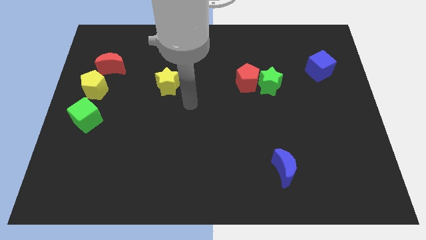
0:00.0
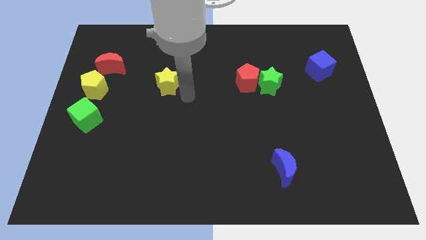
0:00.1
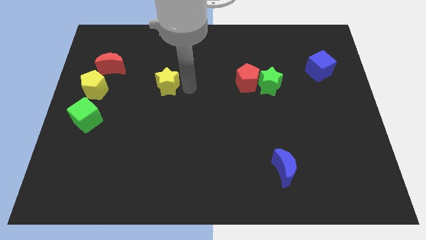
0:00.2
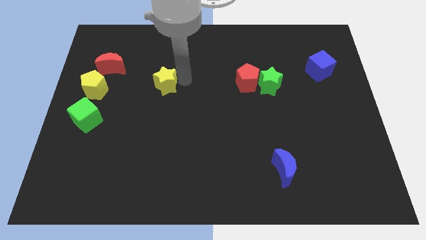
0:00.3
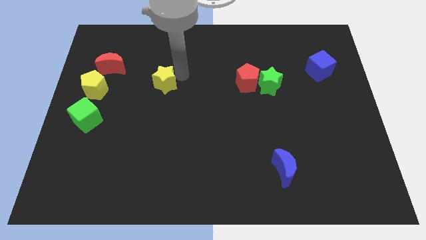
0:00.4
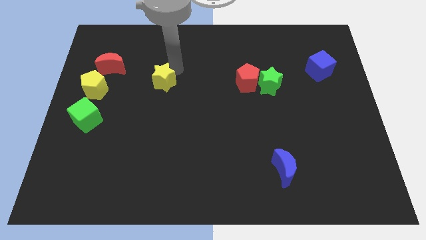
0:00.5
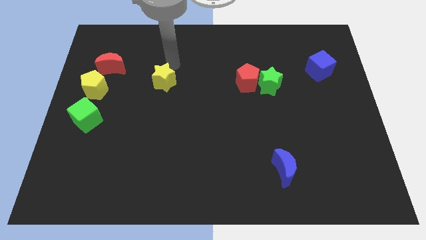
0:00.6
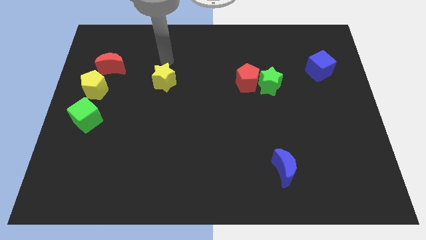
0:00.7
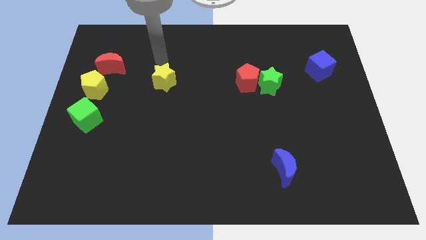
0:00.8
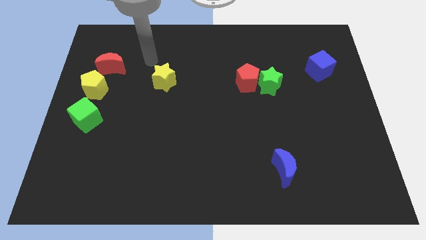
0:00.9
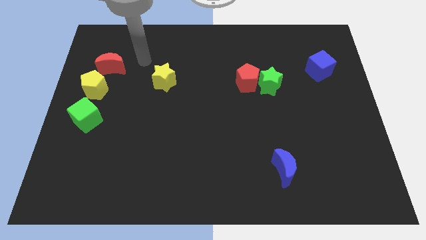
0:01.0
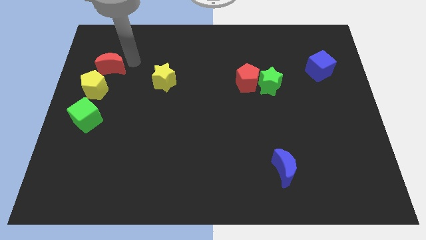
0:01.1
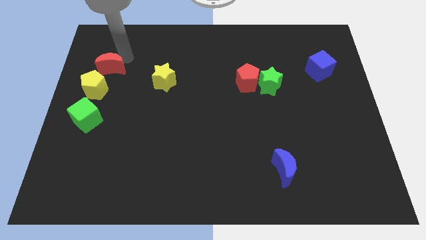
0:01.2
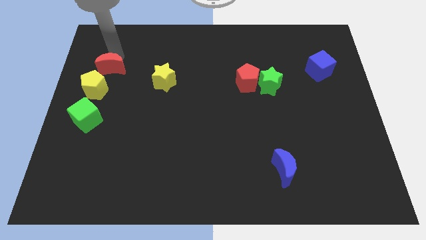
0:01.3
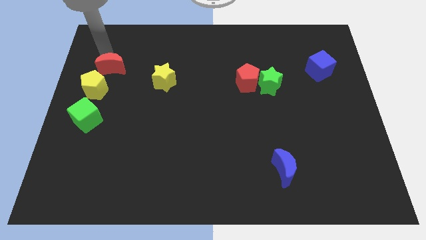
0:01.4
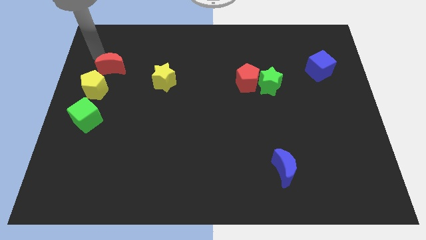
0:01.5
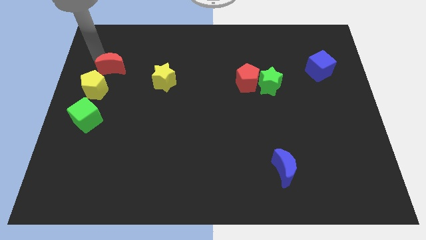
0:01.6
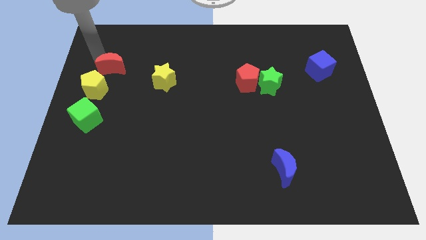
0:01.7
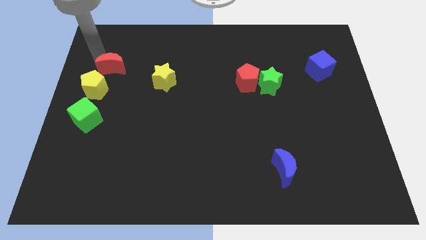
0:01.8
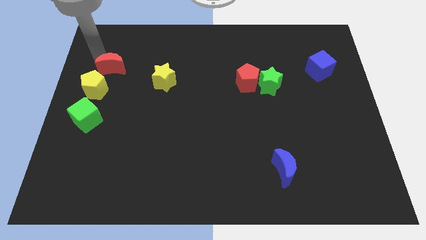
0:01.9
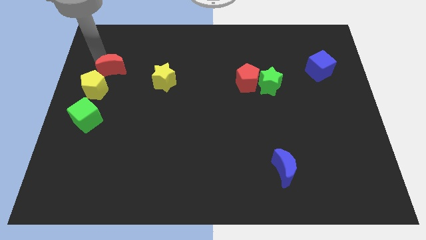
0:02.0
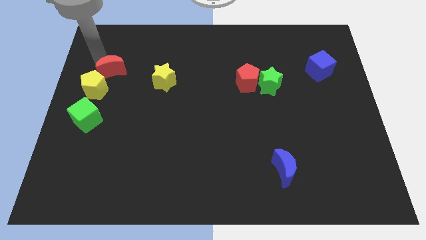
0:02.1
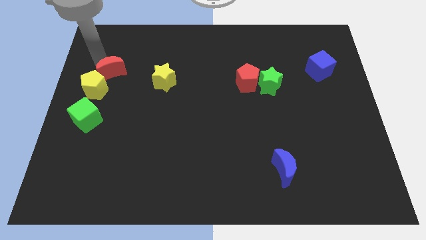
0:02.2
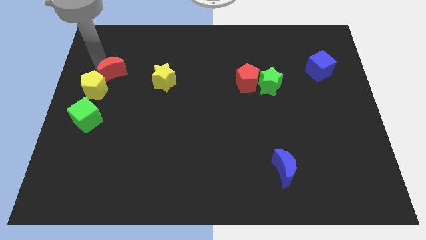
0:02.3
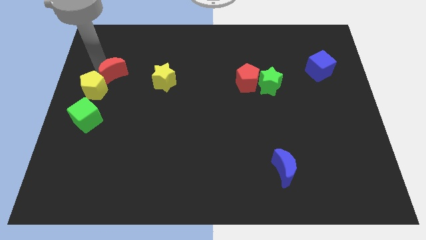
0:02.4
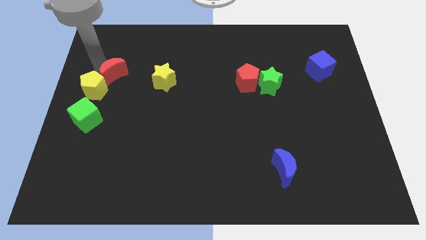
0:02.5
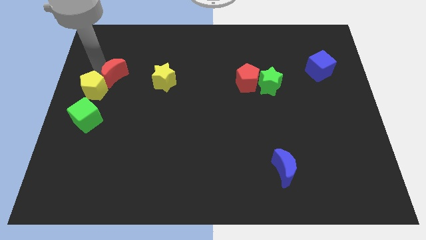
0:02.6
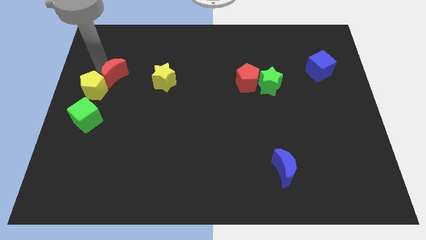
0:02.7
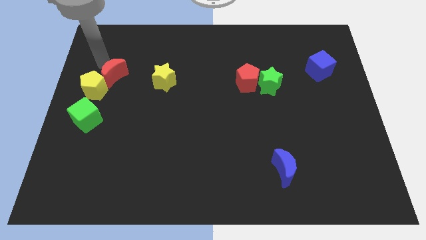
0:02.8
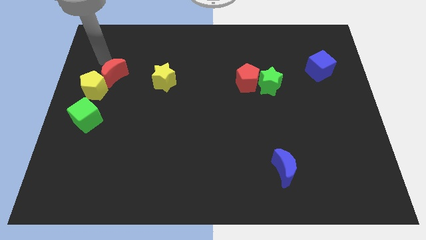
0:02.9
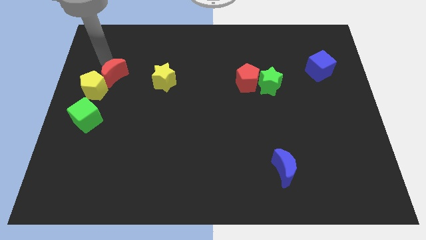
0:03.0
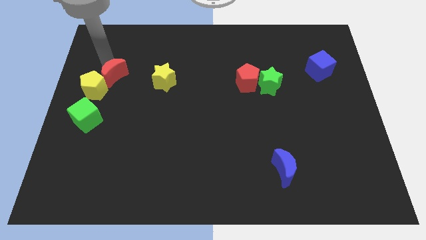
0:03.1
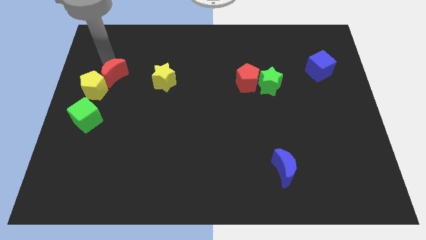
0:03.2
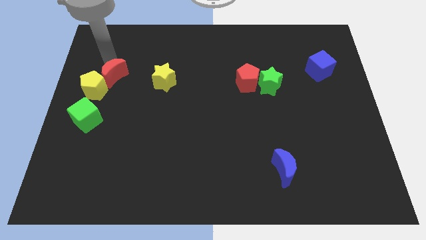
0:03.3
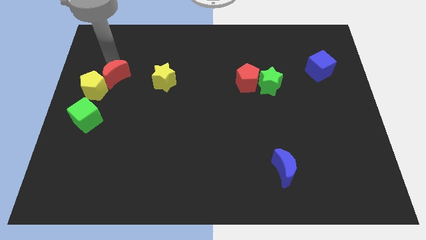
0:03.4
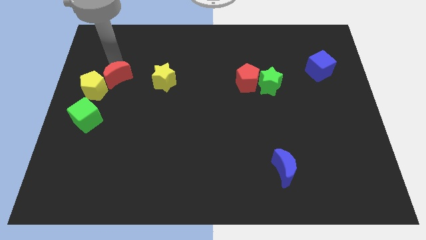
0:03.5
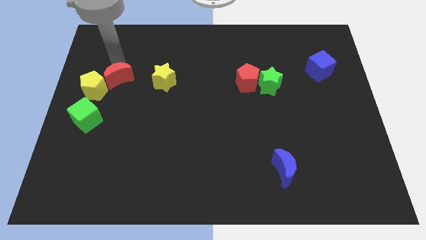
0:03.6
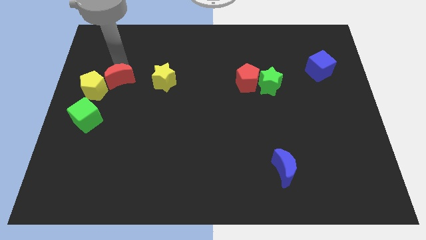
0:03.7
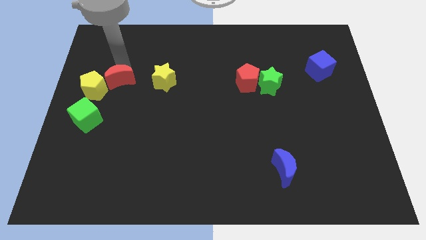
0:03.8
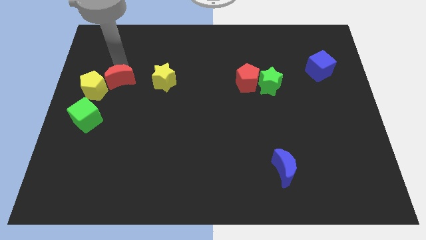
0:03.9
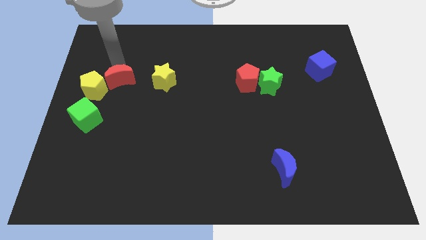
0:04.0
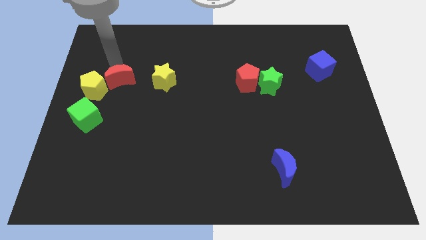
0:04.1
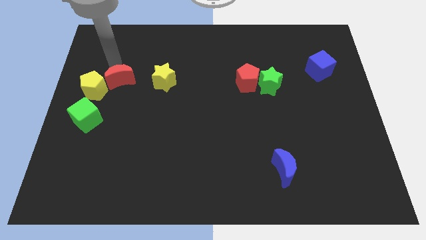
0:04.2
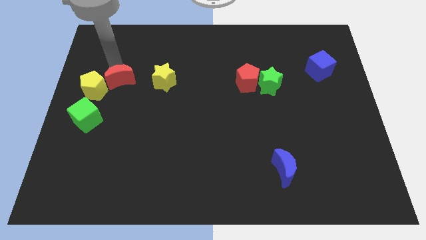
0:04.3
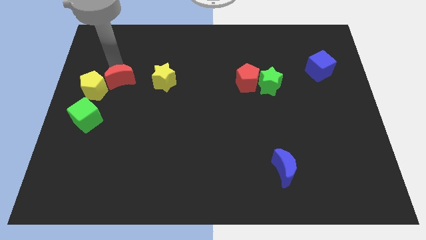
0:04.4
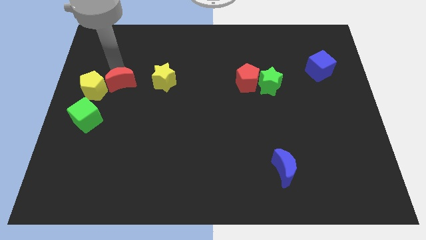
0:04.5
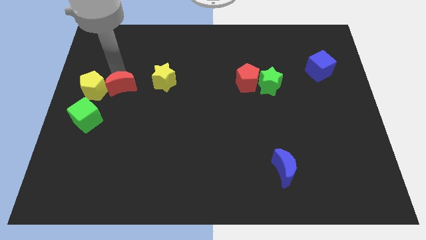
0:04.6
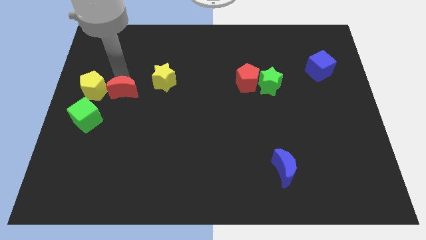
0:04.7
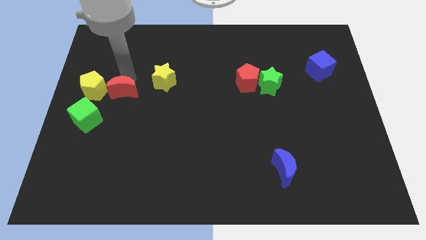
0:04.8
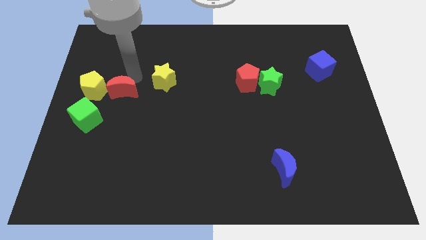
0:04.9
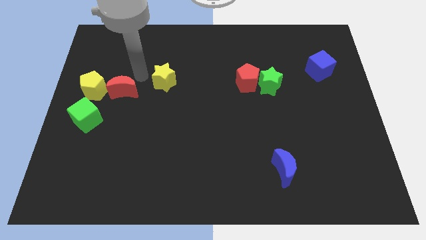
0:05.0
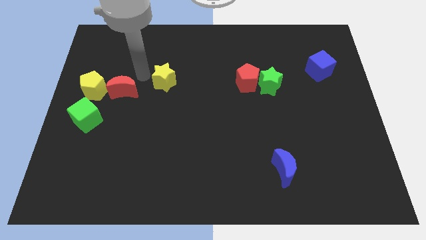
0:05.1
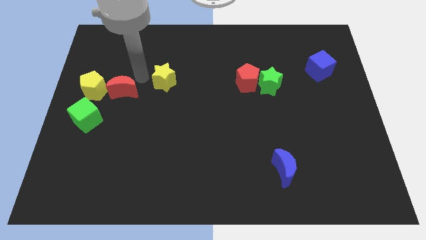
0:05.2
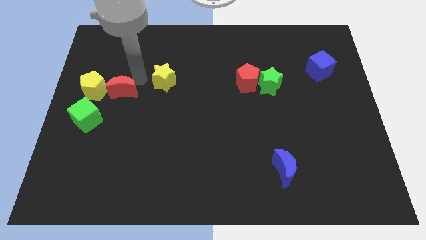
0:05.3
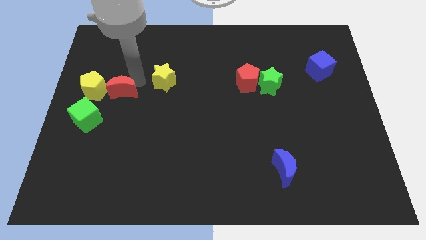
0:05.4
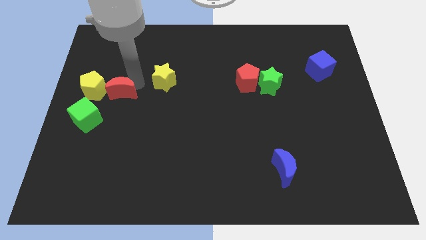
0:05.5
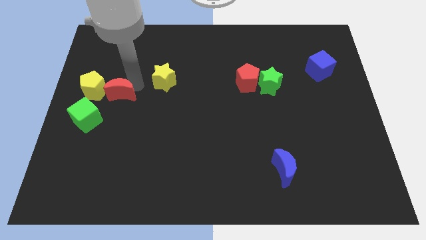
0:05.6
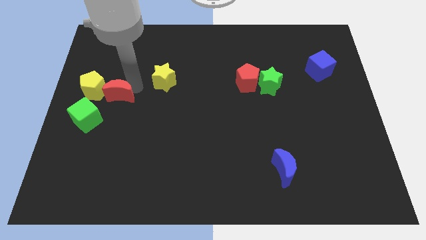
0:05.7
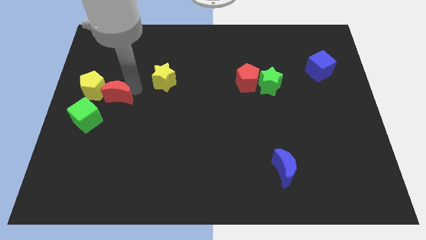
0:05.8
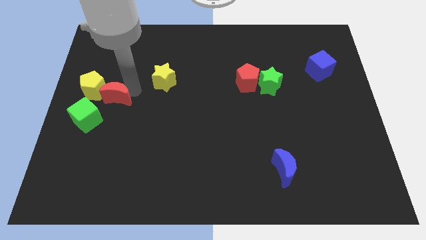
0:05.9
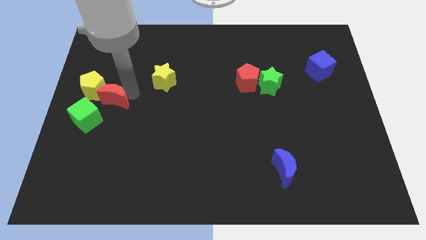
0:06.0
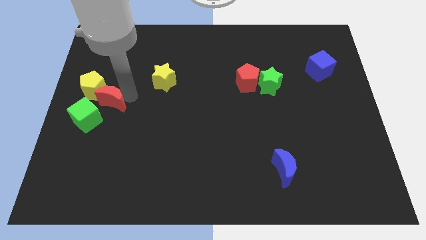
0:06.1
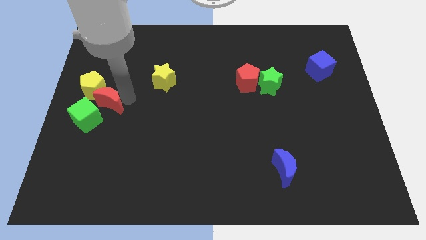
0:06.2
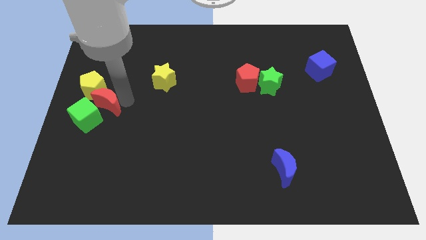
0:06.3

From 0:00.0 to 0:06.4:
put the red moon close to the green cube

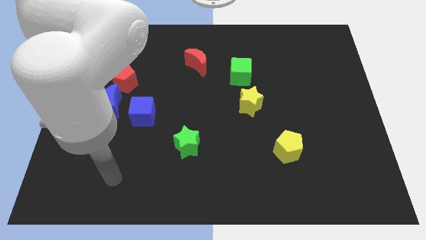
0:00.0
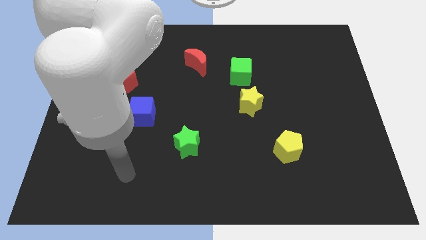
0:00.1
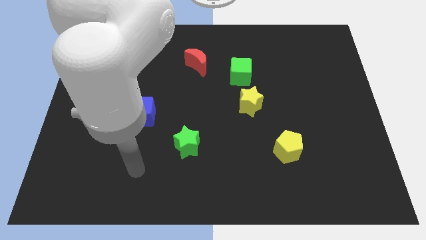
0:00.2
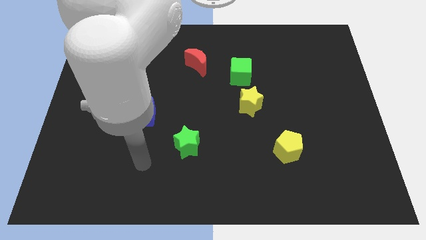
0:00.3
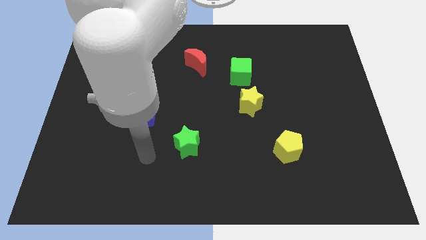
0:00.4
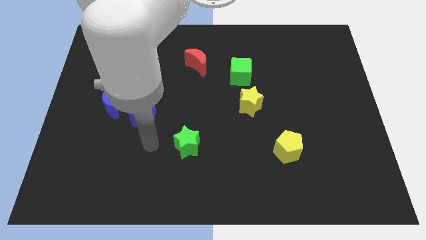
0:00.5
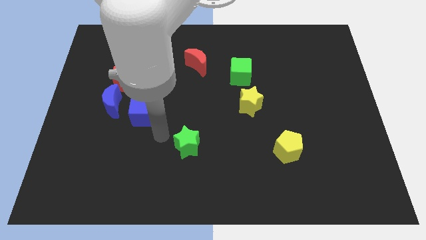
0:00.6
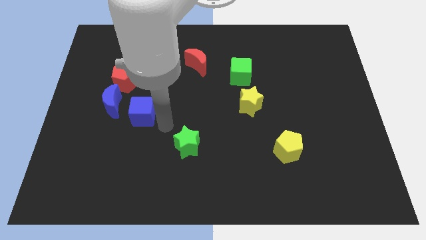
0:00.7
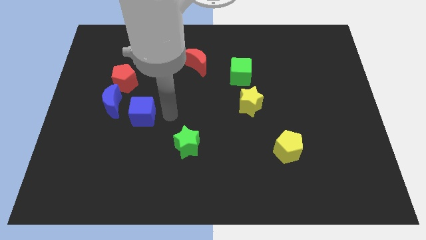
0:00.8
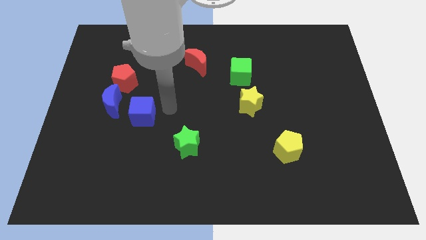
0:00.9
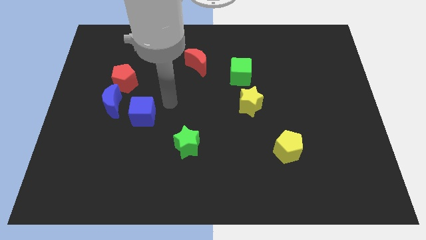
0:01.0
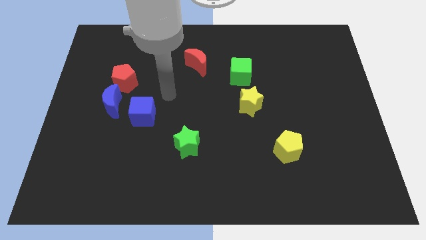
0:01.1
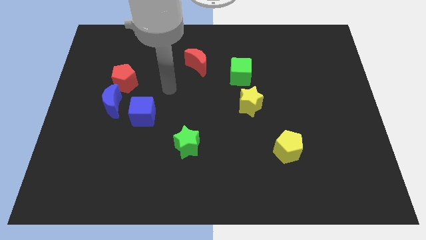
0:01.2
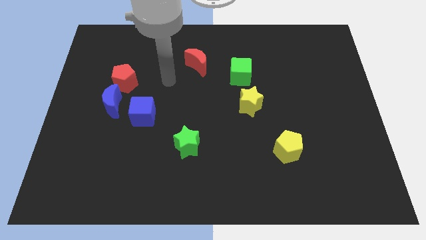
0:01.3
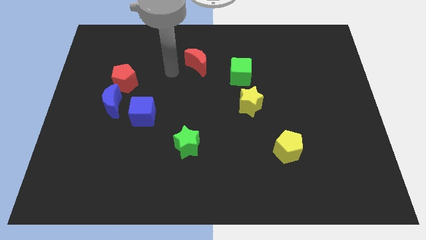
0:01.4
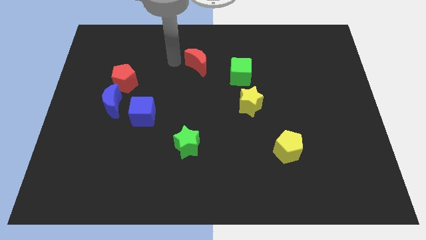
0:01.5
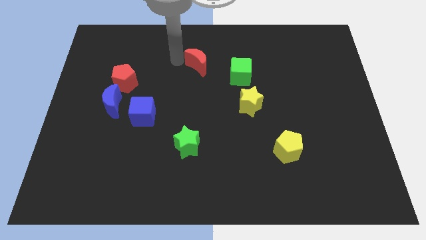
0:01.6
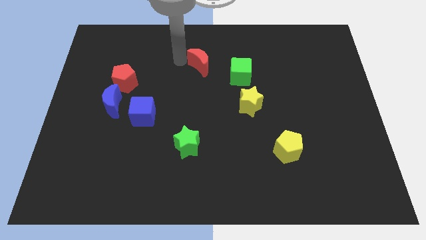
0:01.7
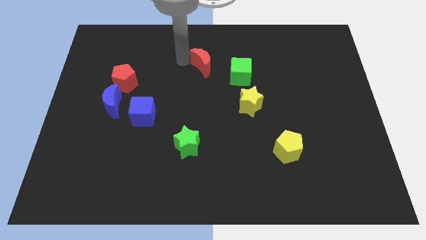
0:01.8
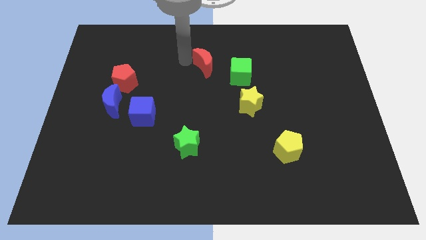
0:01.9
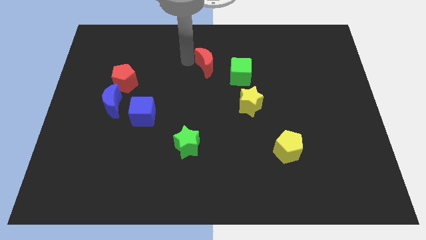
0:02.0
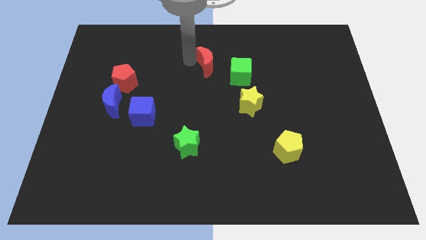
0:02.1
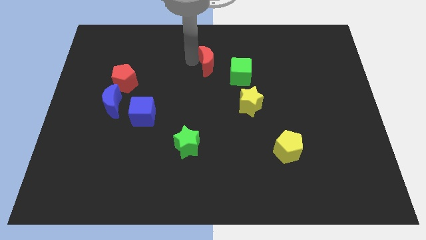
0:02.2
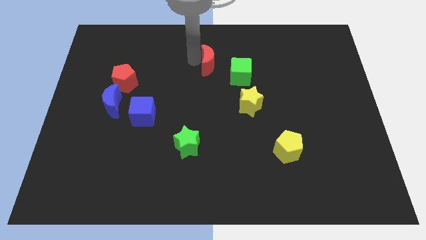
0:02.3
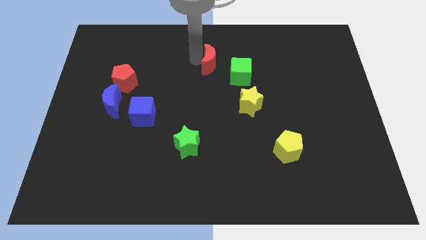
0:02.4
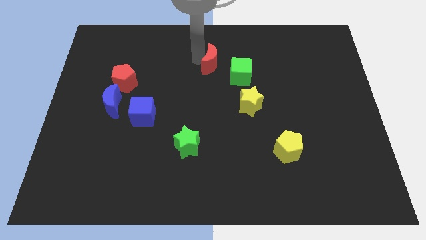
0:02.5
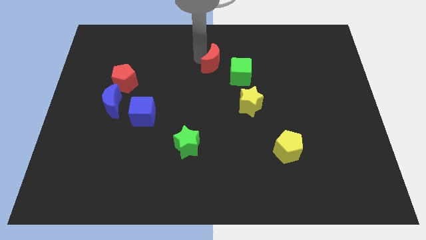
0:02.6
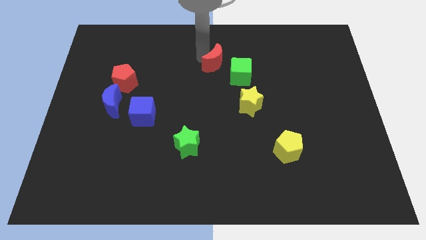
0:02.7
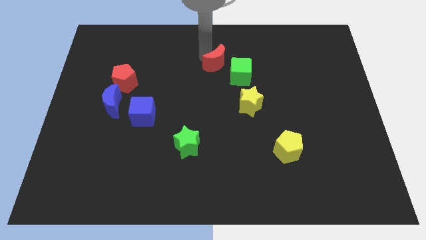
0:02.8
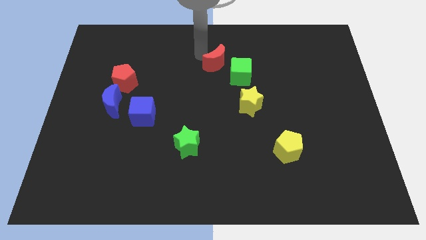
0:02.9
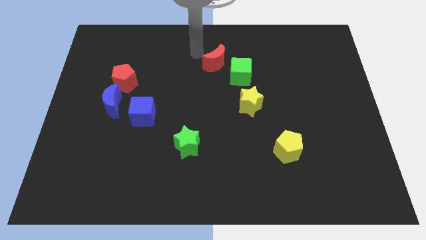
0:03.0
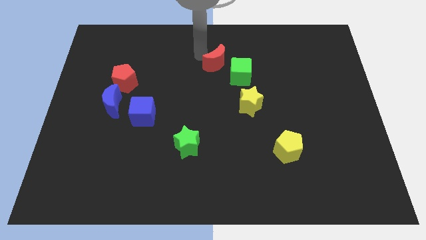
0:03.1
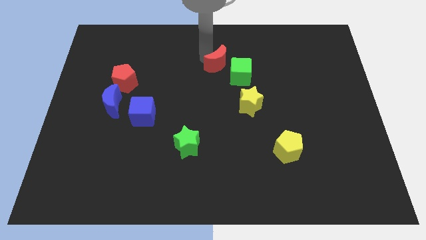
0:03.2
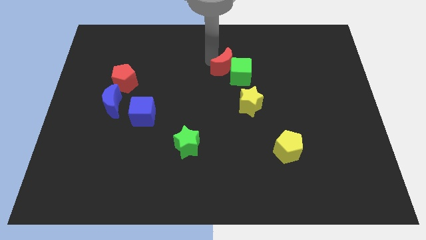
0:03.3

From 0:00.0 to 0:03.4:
slide the red moon towards the green cube
